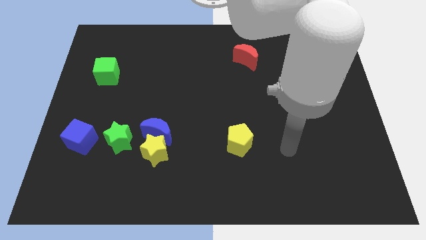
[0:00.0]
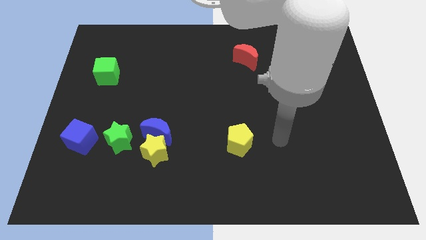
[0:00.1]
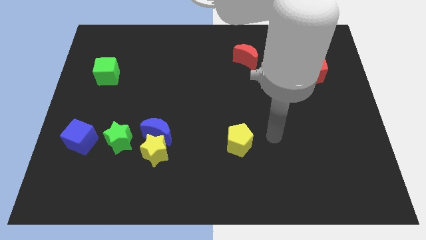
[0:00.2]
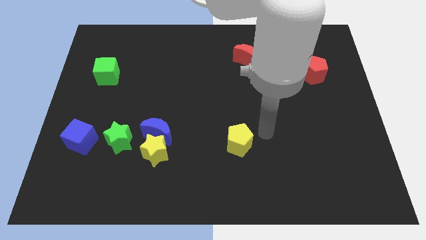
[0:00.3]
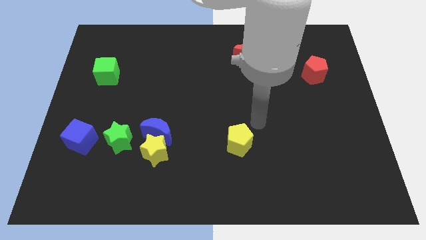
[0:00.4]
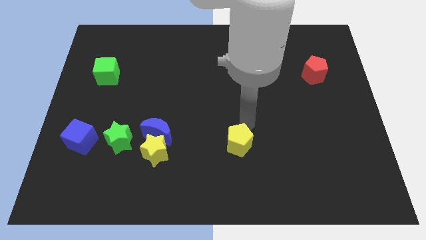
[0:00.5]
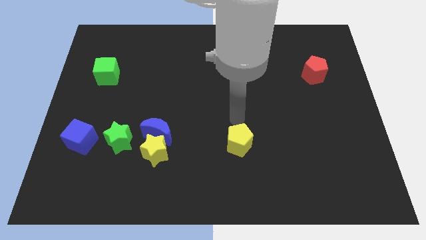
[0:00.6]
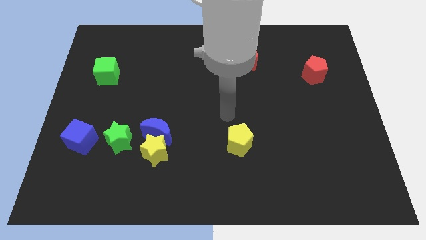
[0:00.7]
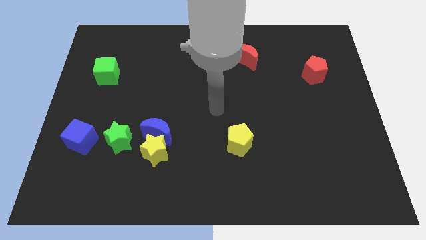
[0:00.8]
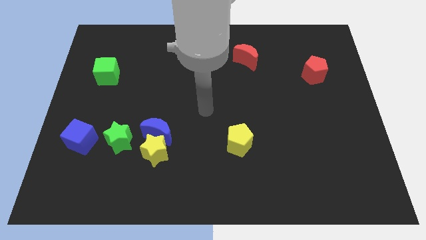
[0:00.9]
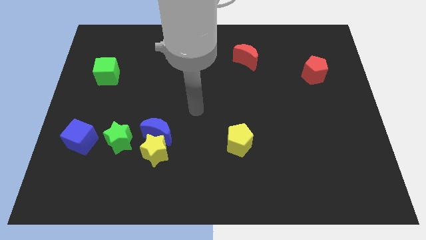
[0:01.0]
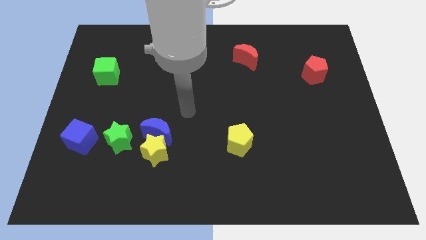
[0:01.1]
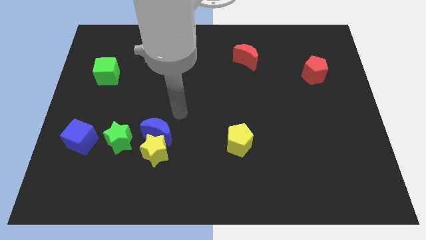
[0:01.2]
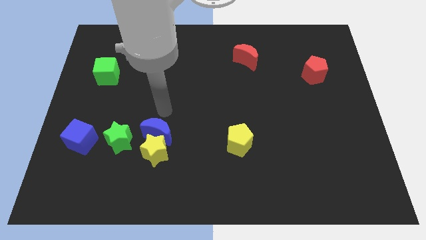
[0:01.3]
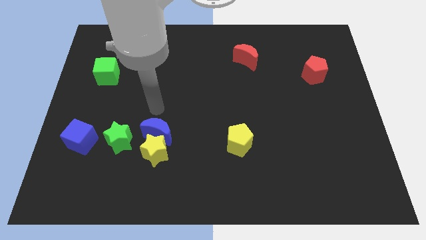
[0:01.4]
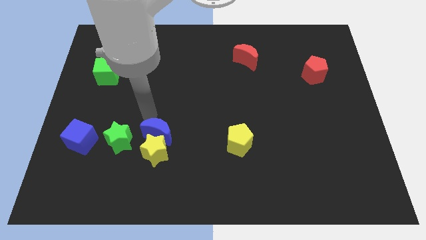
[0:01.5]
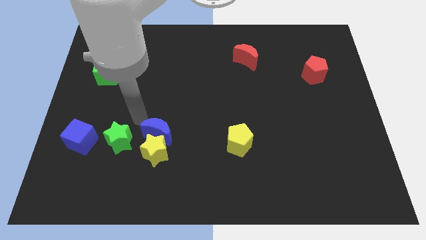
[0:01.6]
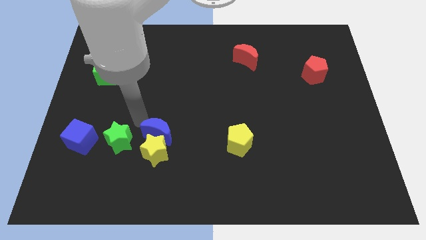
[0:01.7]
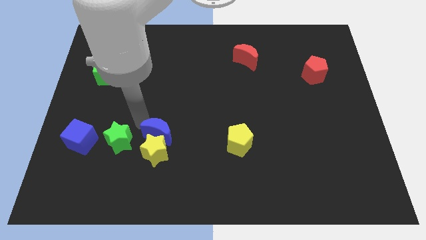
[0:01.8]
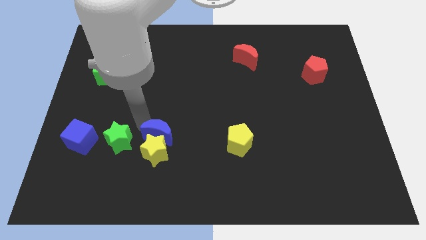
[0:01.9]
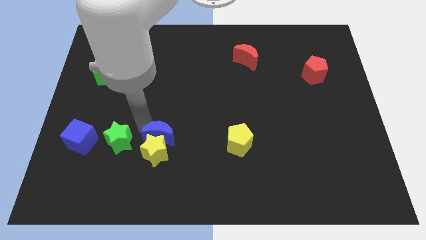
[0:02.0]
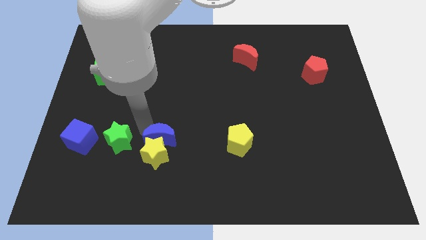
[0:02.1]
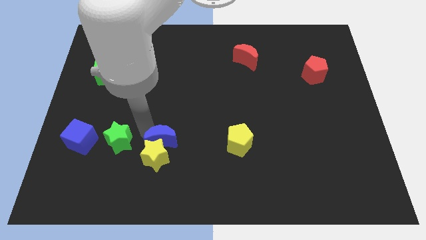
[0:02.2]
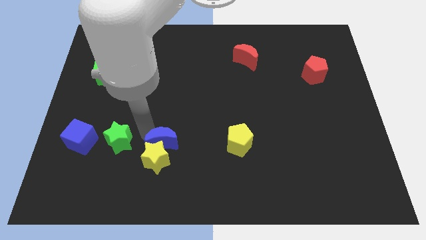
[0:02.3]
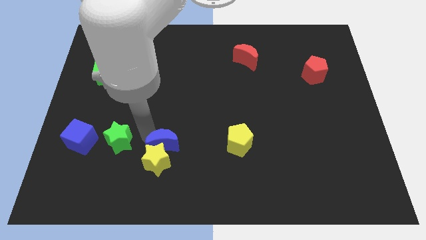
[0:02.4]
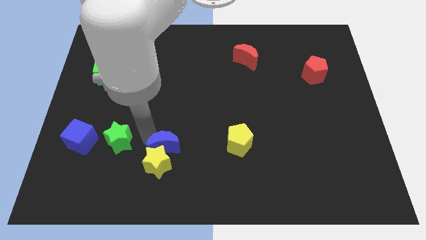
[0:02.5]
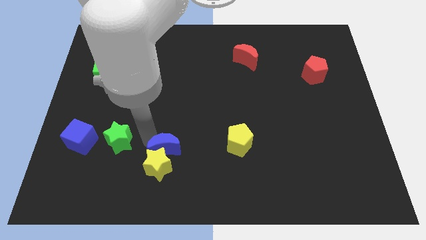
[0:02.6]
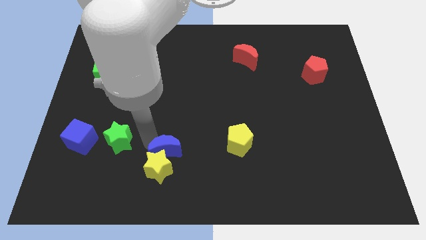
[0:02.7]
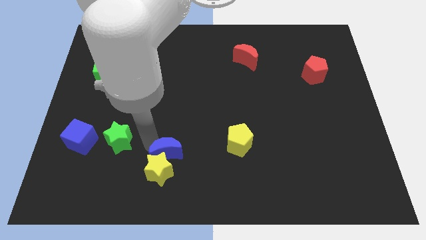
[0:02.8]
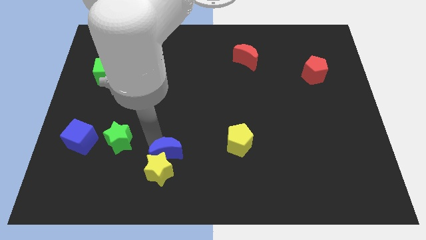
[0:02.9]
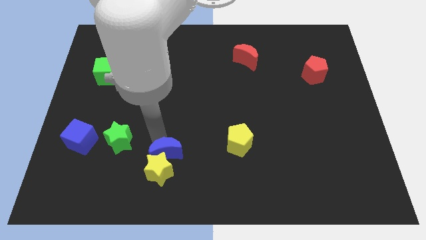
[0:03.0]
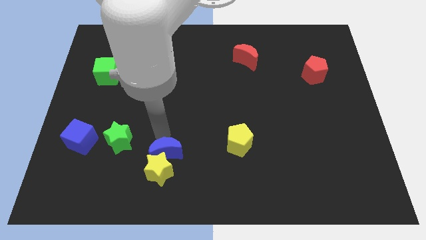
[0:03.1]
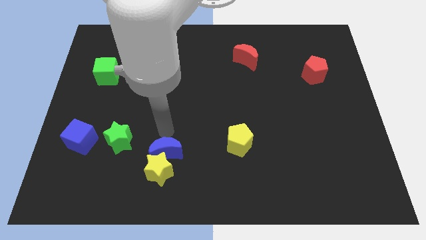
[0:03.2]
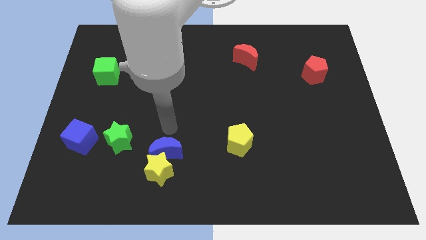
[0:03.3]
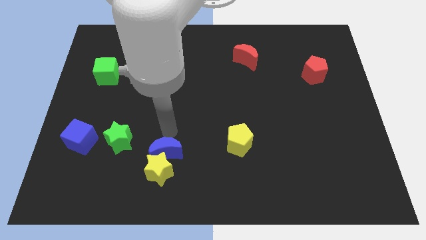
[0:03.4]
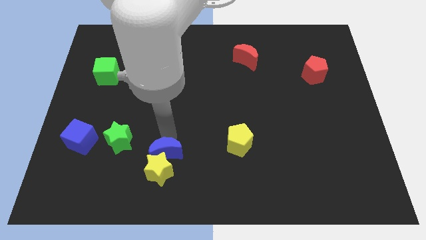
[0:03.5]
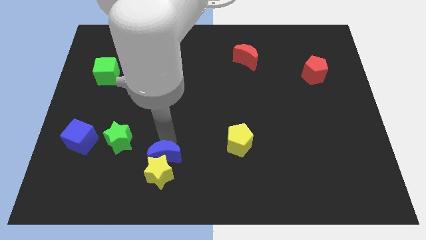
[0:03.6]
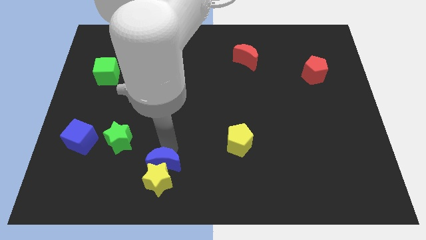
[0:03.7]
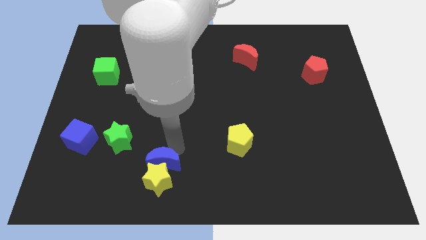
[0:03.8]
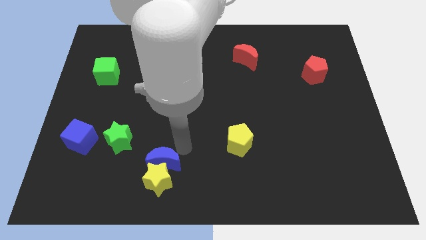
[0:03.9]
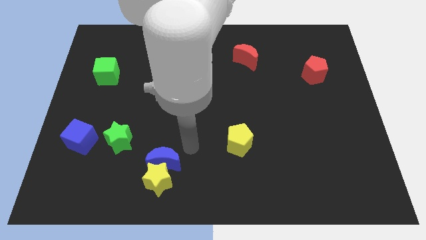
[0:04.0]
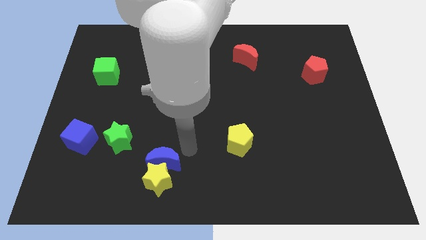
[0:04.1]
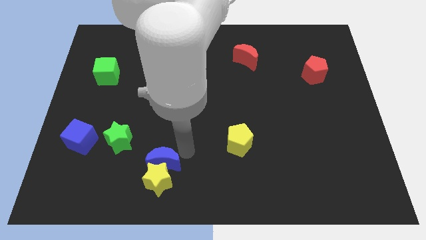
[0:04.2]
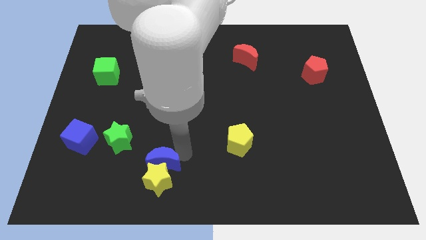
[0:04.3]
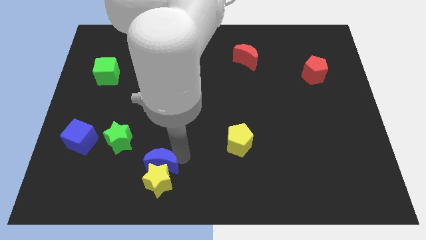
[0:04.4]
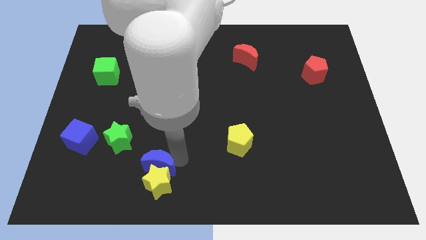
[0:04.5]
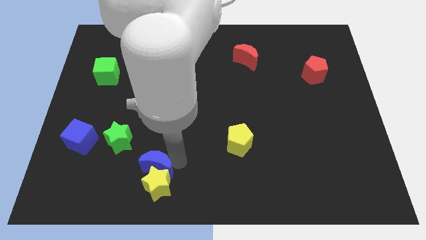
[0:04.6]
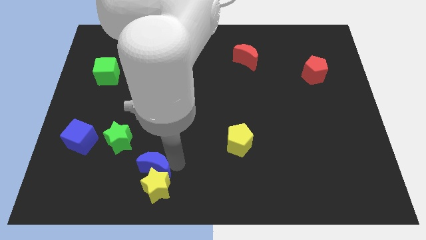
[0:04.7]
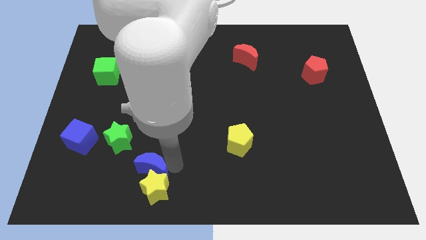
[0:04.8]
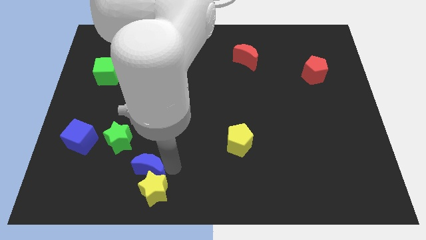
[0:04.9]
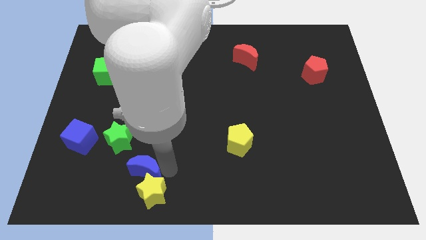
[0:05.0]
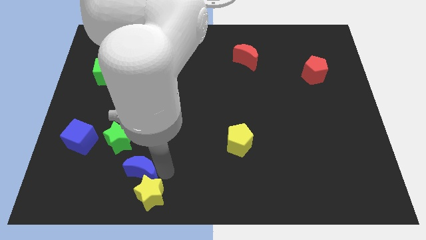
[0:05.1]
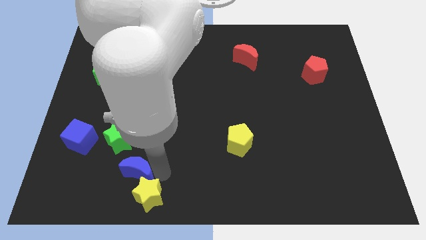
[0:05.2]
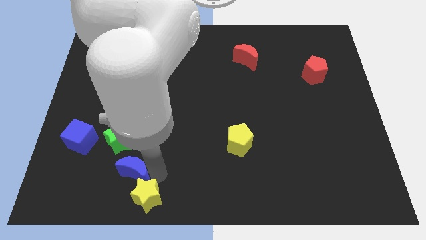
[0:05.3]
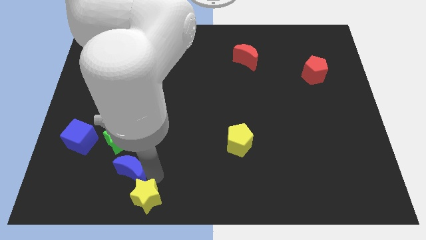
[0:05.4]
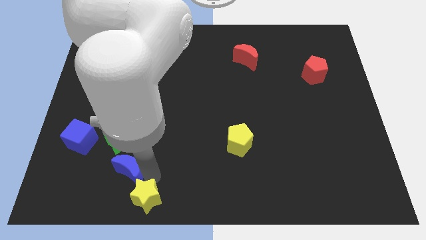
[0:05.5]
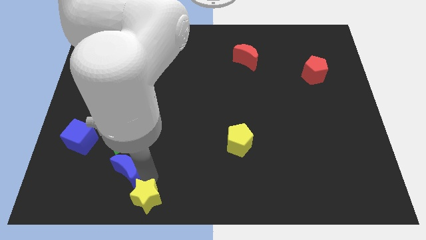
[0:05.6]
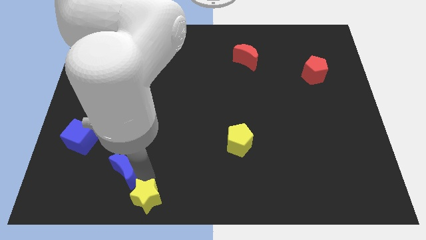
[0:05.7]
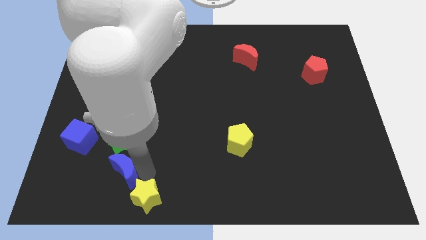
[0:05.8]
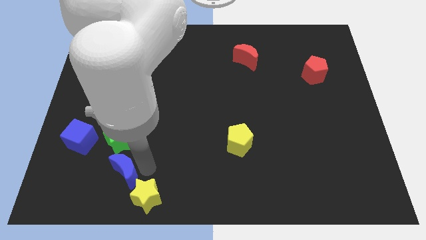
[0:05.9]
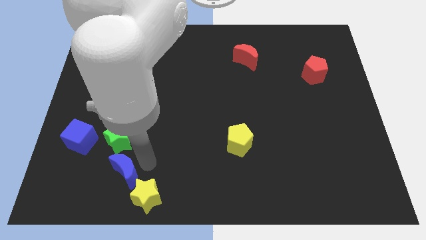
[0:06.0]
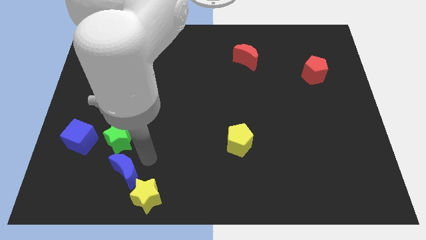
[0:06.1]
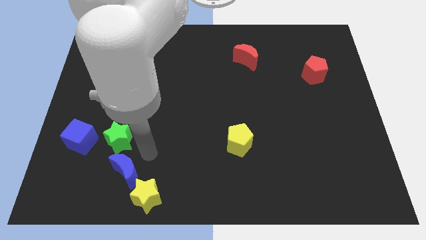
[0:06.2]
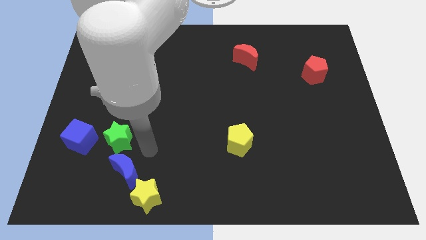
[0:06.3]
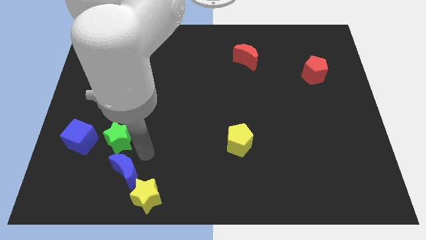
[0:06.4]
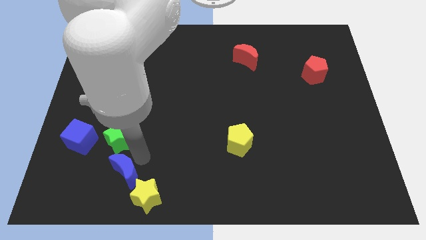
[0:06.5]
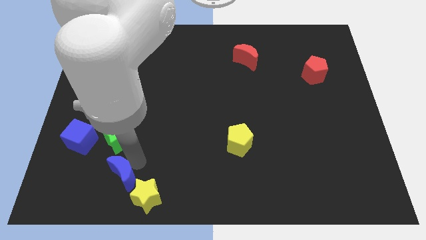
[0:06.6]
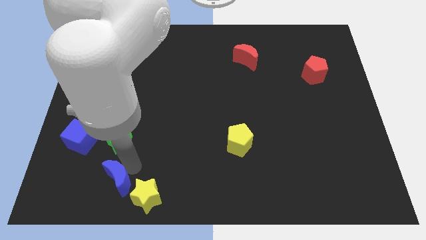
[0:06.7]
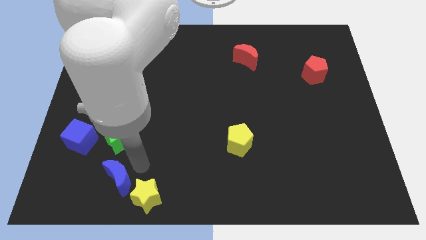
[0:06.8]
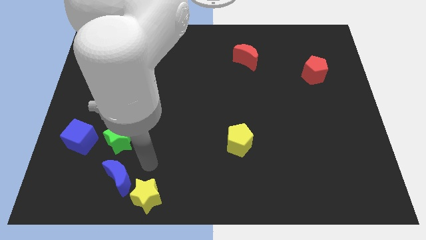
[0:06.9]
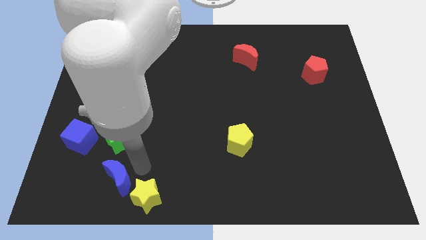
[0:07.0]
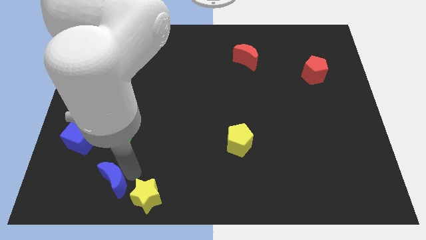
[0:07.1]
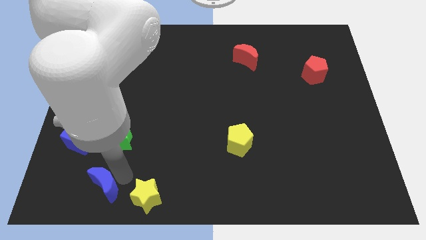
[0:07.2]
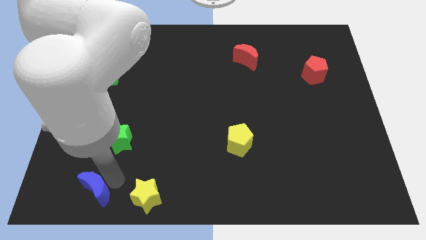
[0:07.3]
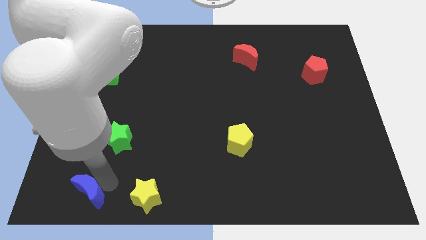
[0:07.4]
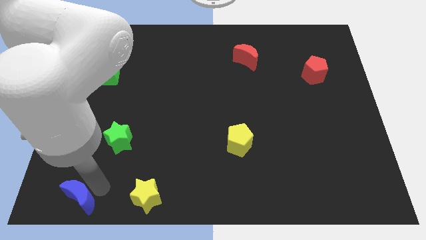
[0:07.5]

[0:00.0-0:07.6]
push the blue moon to the lower left corner
